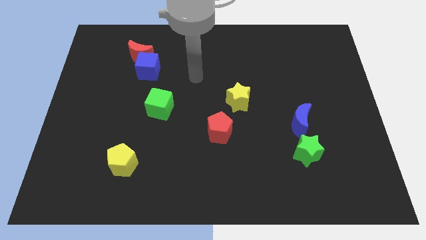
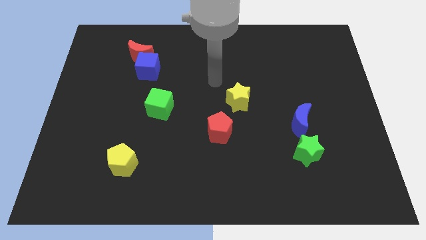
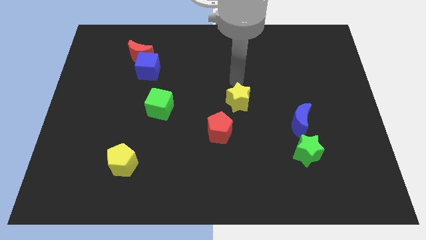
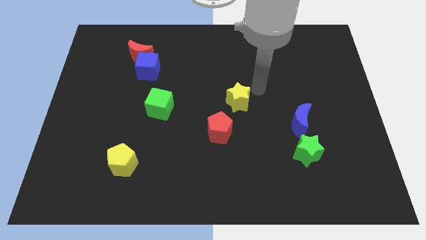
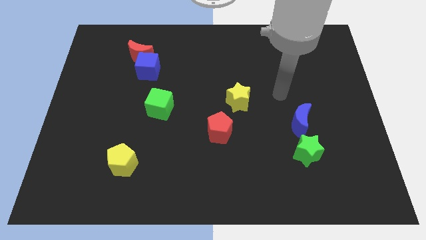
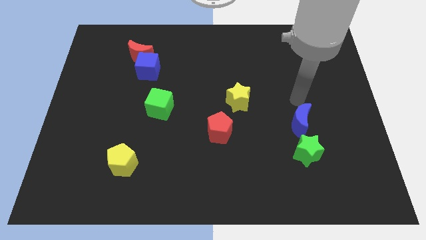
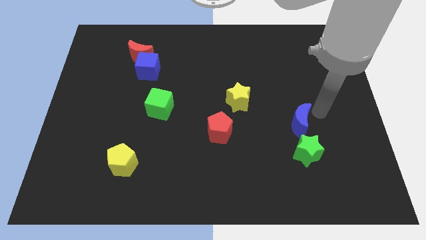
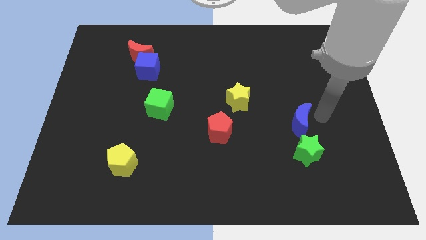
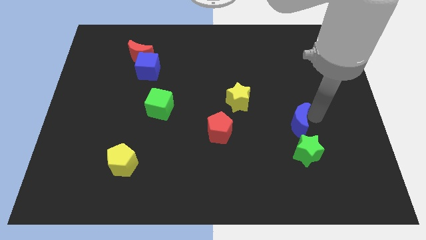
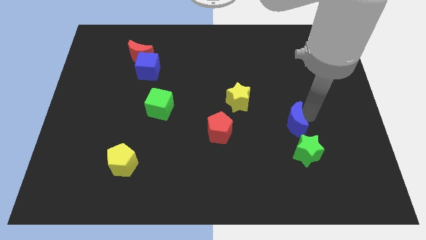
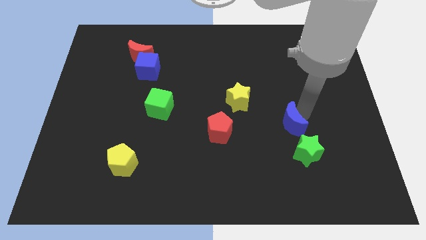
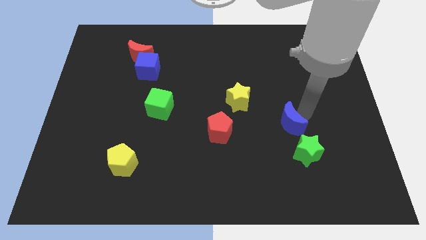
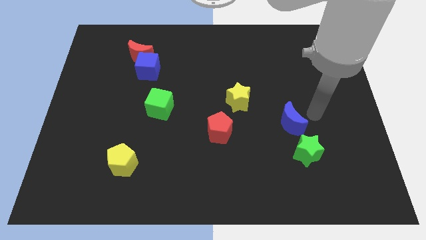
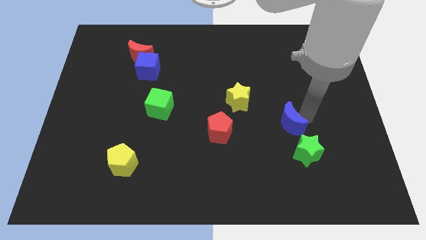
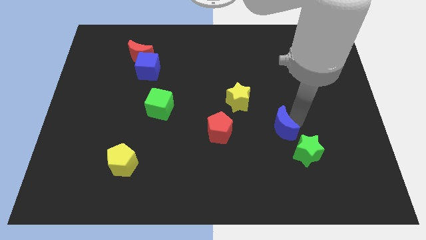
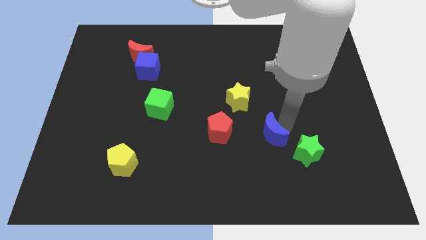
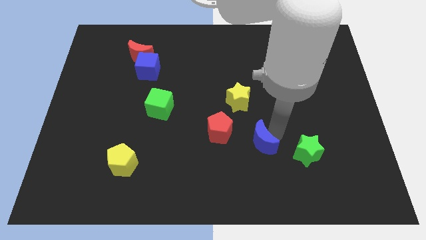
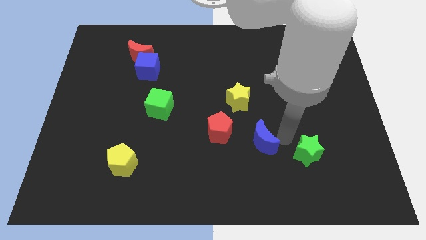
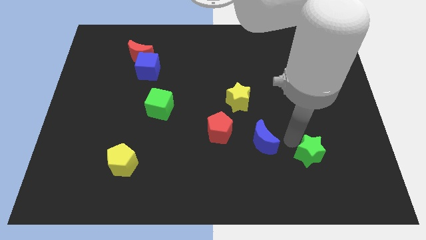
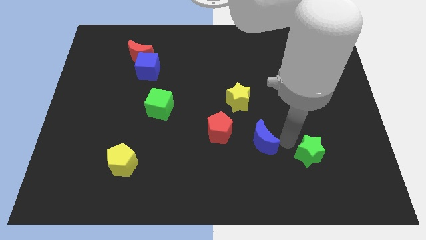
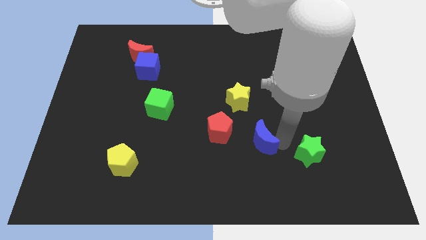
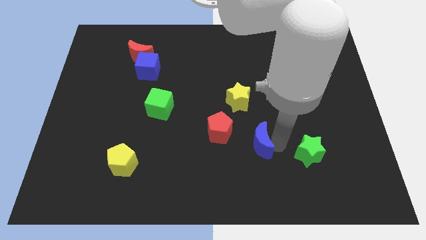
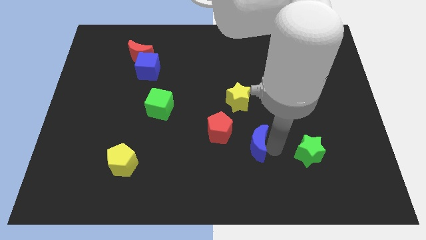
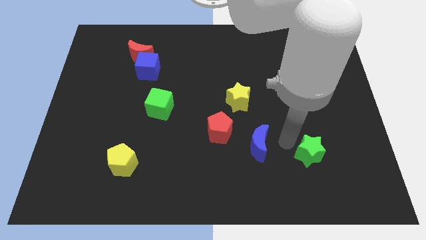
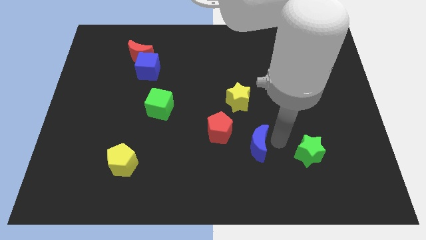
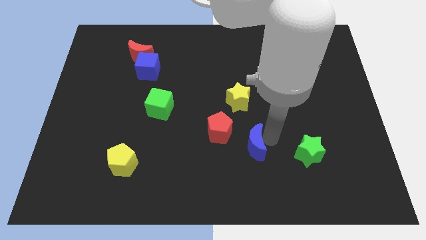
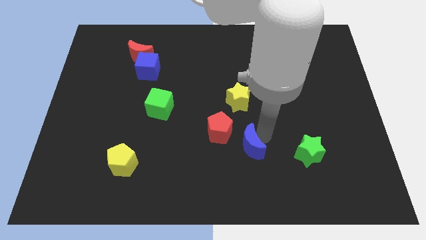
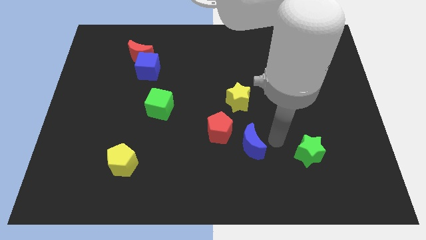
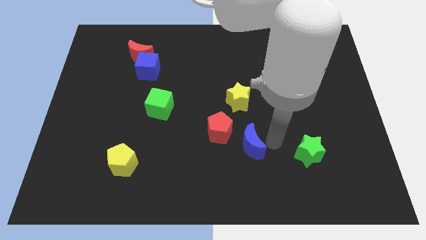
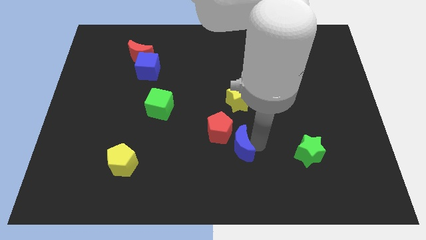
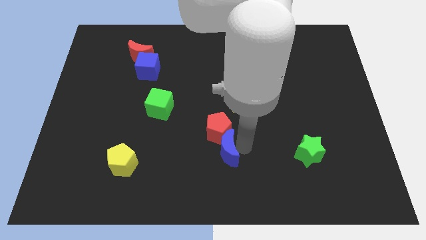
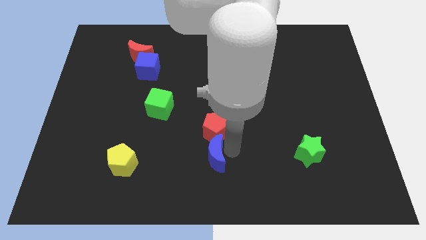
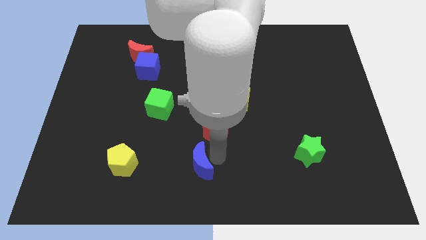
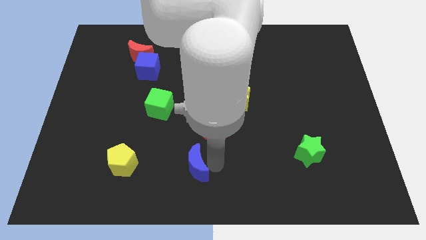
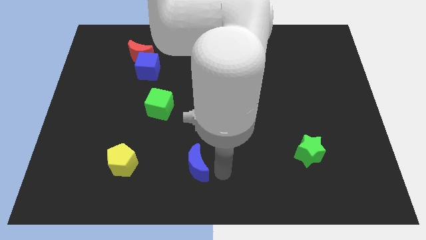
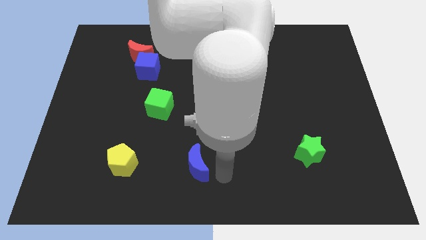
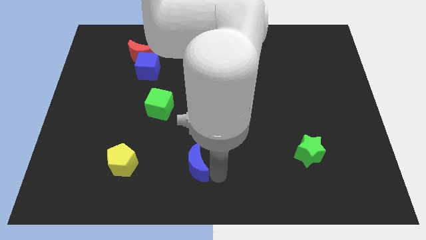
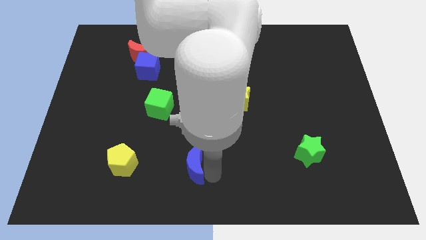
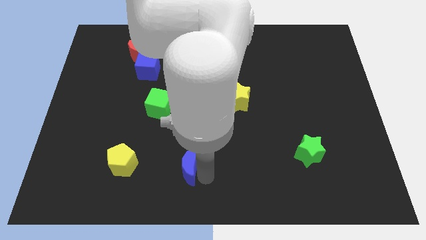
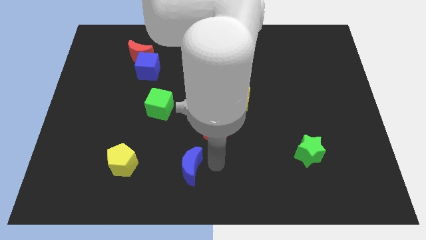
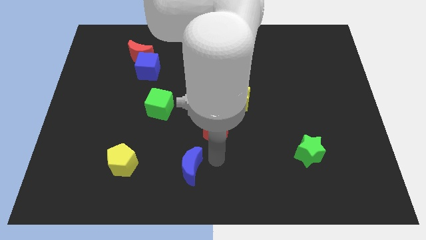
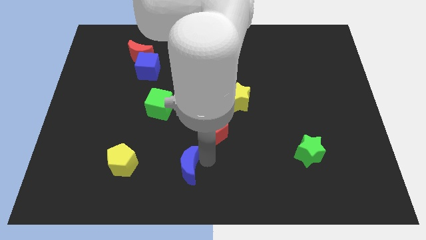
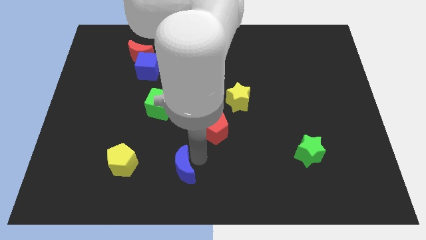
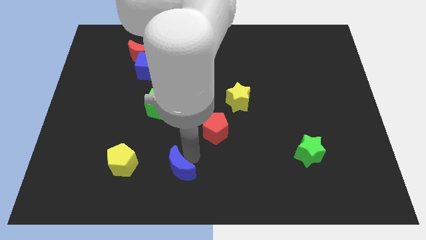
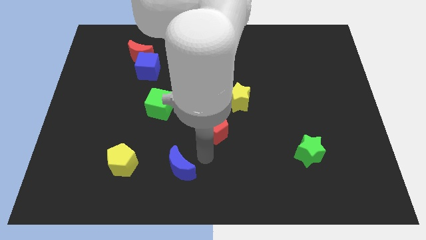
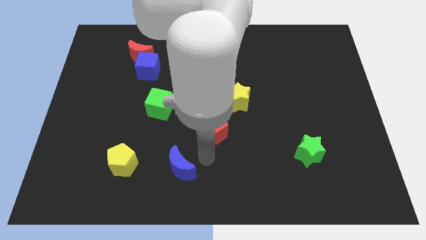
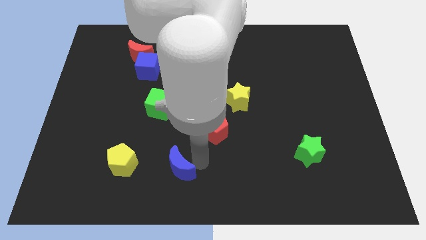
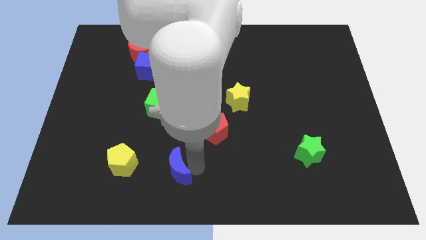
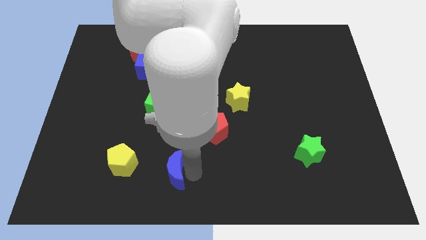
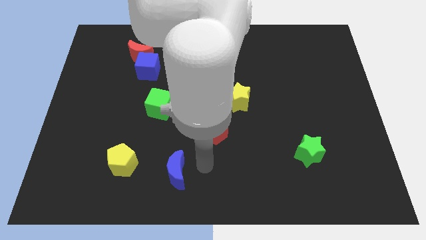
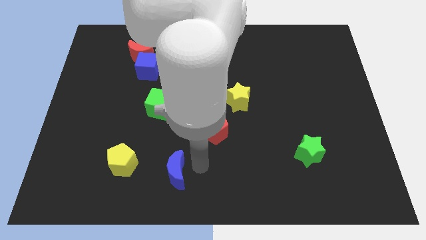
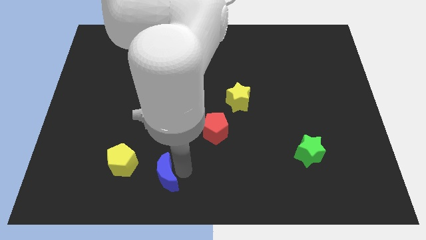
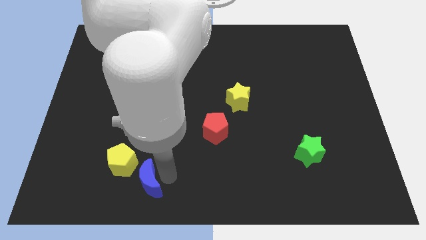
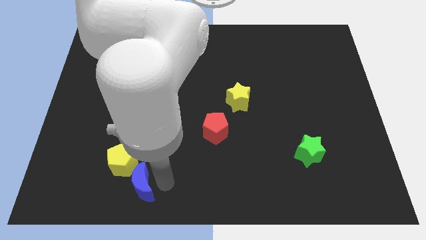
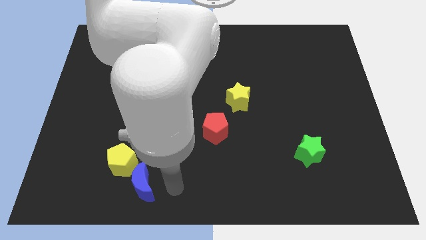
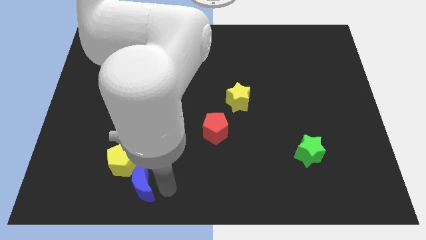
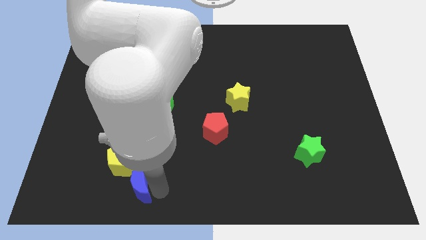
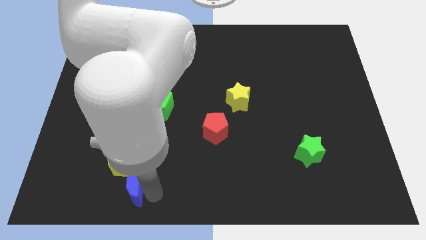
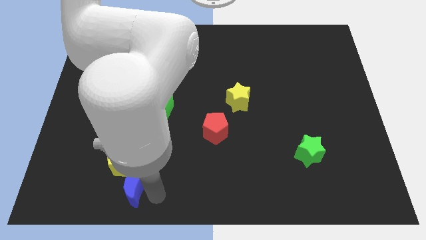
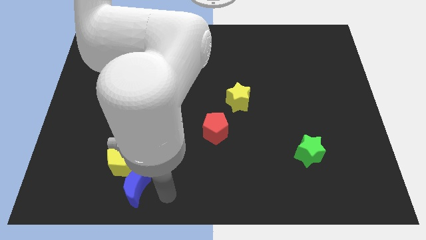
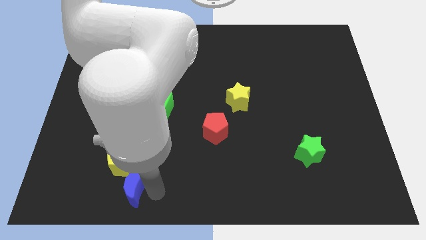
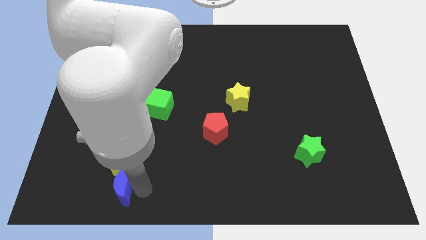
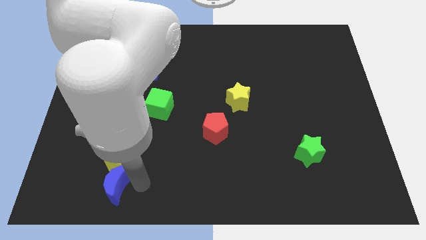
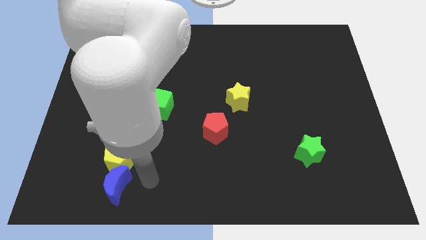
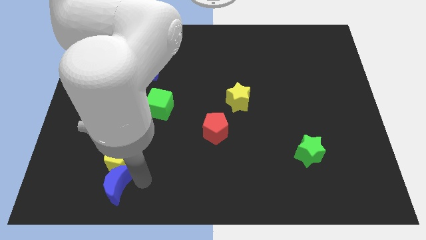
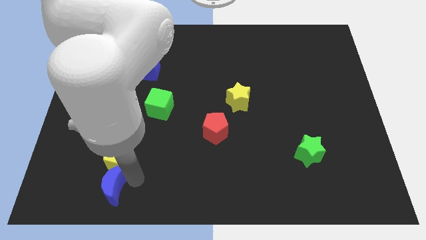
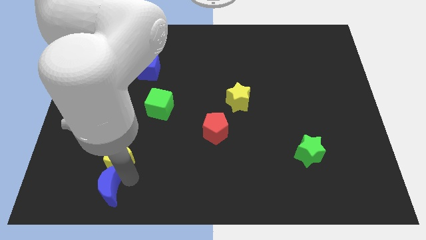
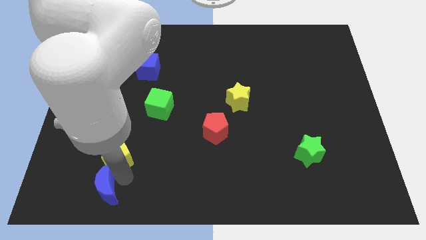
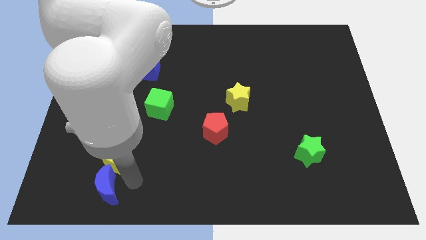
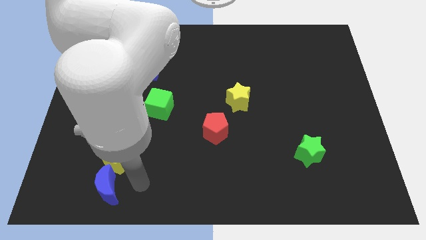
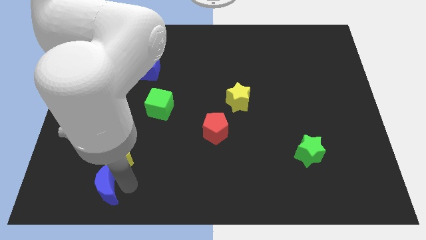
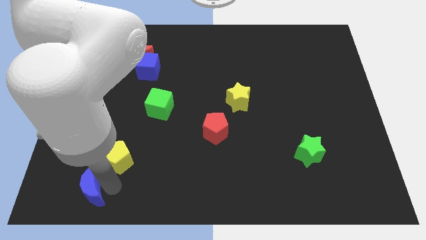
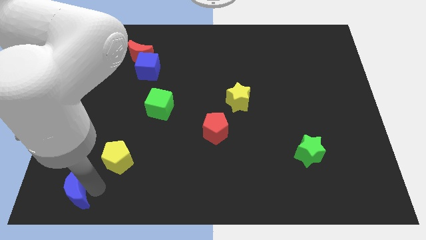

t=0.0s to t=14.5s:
put the blue moon to the bottom left
